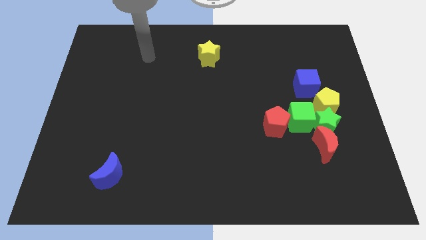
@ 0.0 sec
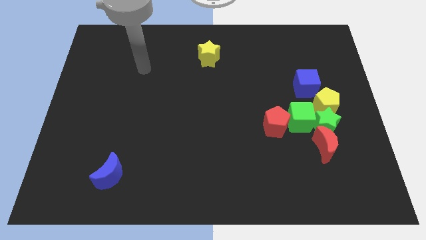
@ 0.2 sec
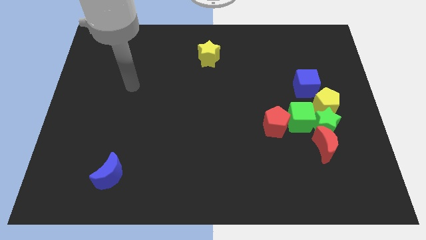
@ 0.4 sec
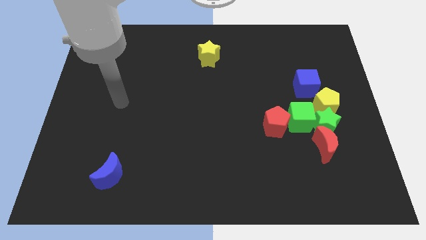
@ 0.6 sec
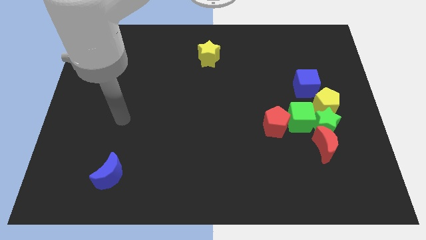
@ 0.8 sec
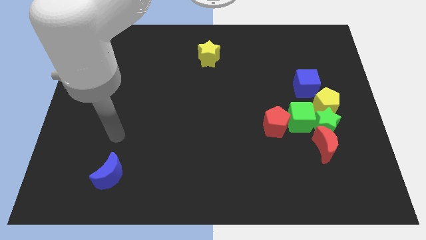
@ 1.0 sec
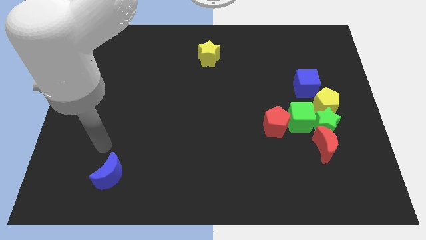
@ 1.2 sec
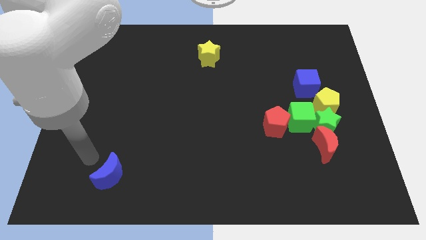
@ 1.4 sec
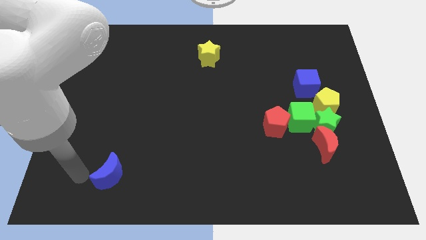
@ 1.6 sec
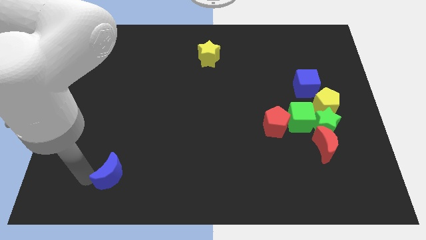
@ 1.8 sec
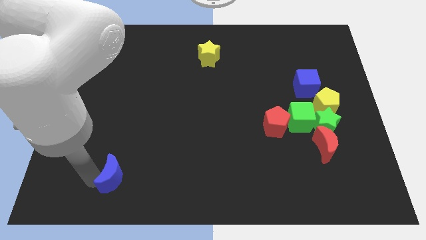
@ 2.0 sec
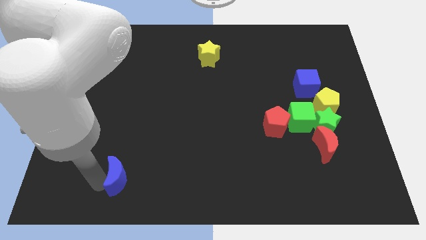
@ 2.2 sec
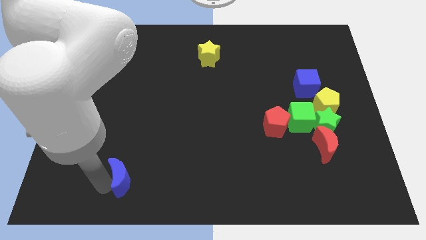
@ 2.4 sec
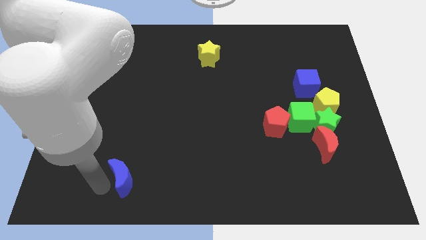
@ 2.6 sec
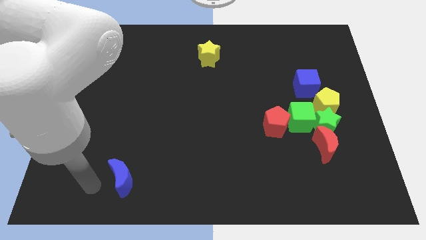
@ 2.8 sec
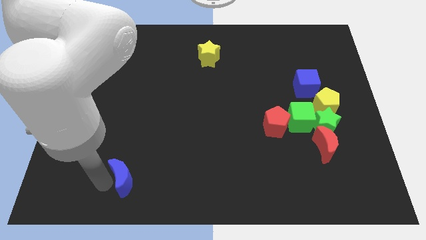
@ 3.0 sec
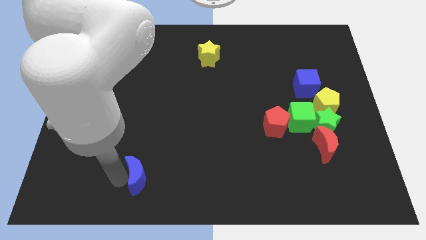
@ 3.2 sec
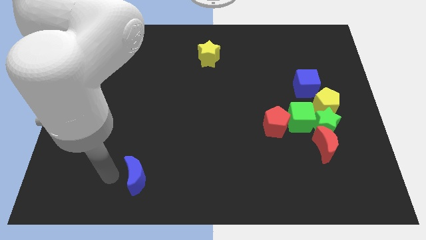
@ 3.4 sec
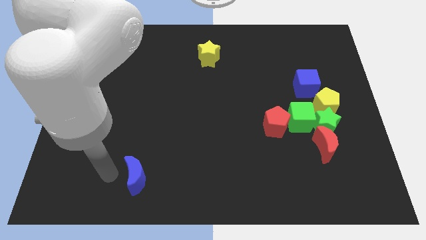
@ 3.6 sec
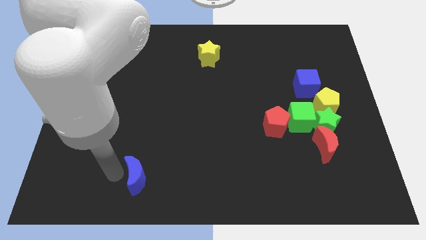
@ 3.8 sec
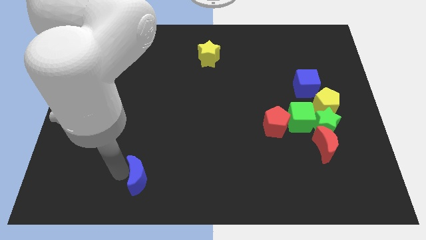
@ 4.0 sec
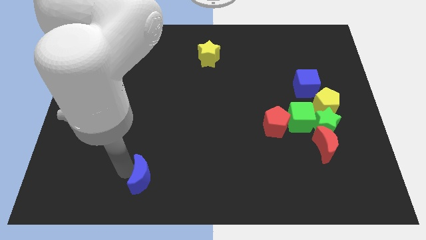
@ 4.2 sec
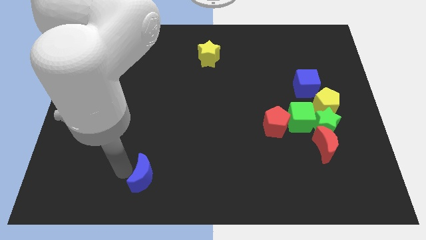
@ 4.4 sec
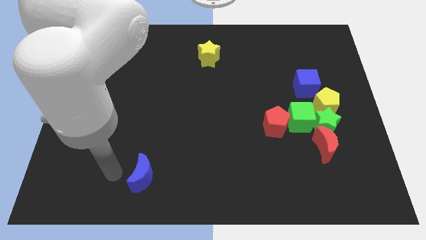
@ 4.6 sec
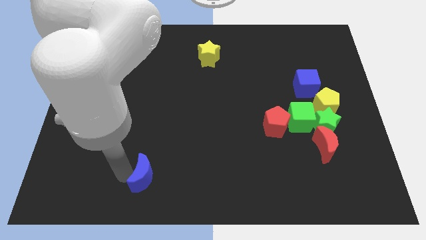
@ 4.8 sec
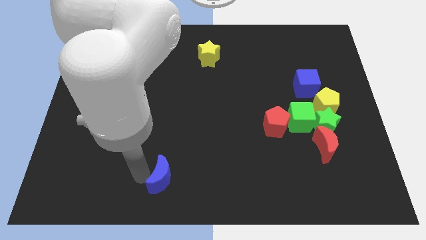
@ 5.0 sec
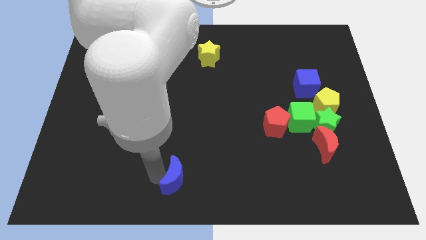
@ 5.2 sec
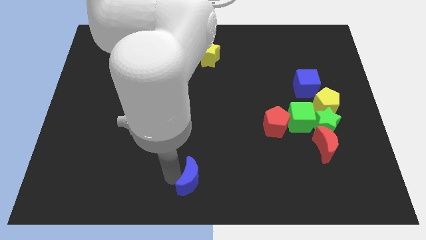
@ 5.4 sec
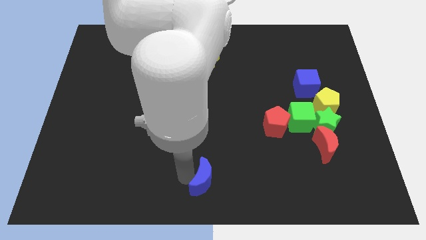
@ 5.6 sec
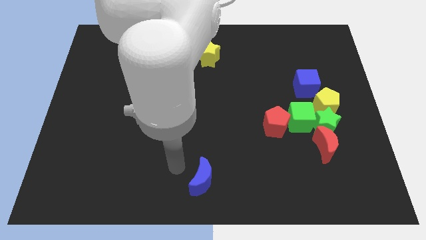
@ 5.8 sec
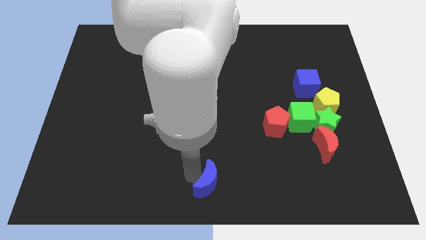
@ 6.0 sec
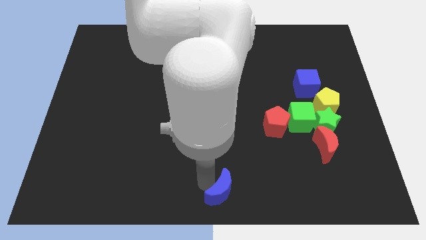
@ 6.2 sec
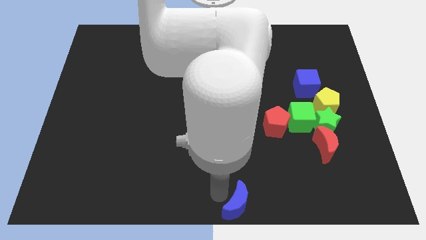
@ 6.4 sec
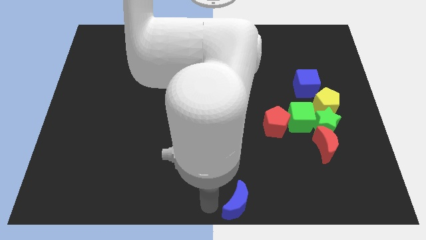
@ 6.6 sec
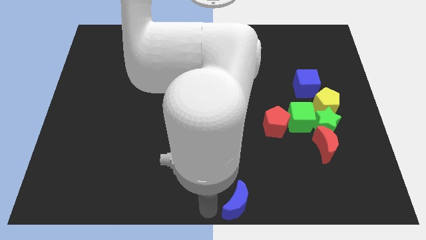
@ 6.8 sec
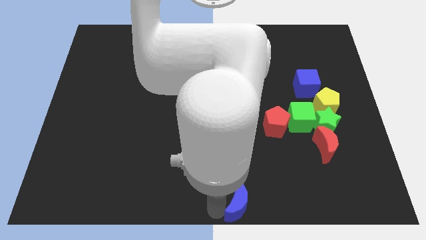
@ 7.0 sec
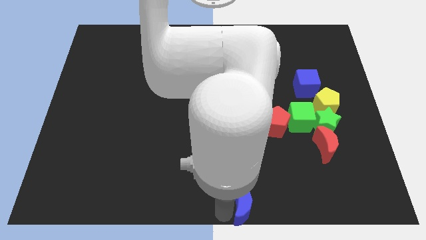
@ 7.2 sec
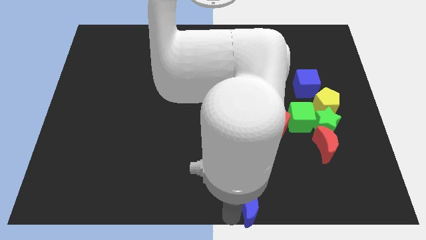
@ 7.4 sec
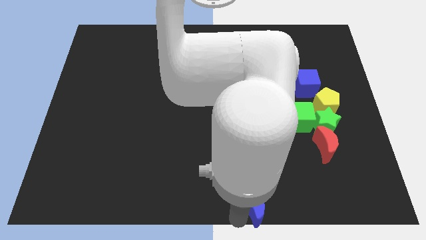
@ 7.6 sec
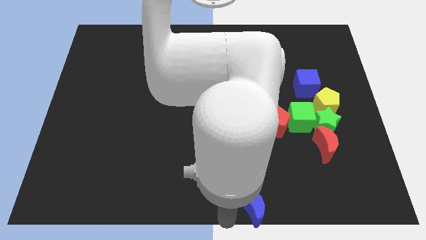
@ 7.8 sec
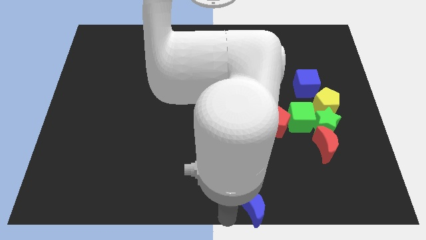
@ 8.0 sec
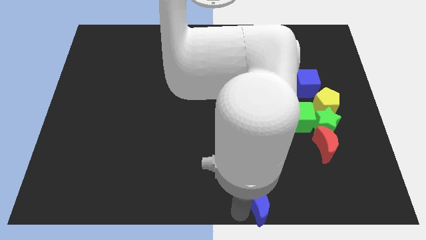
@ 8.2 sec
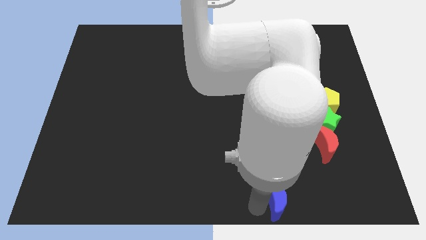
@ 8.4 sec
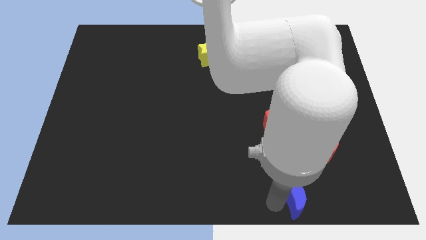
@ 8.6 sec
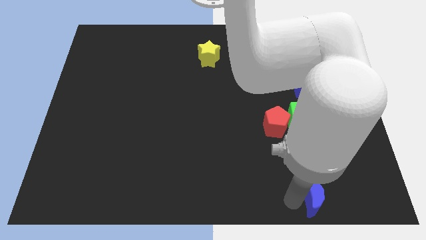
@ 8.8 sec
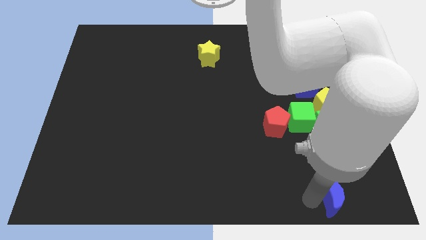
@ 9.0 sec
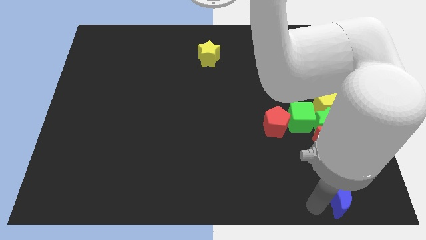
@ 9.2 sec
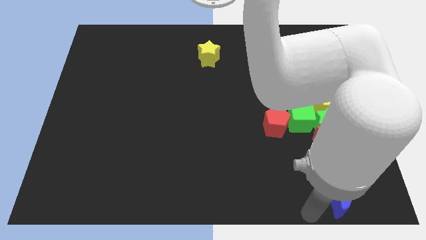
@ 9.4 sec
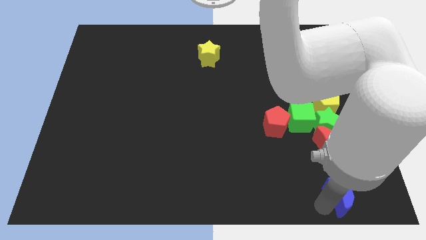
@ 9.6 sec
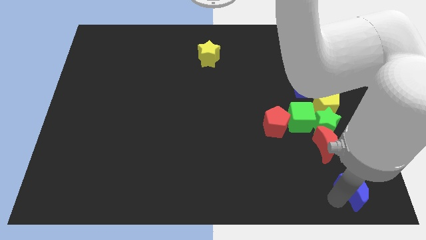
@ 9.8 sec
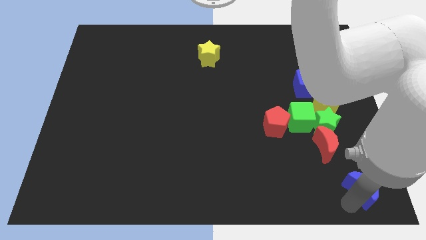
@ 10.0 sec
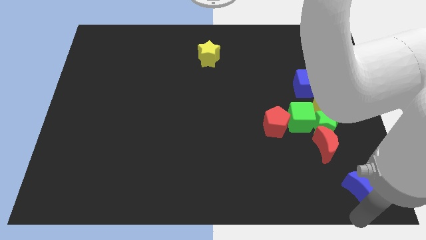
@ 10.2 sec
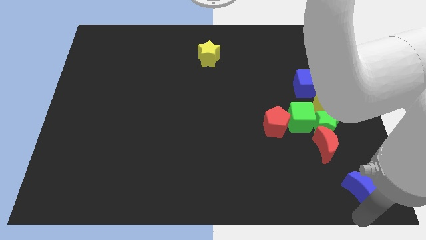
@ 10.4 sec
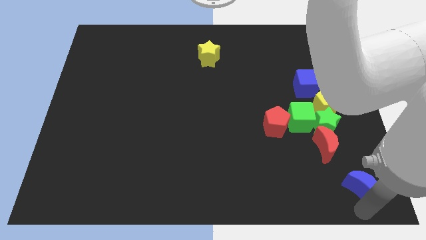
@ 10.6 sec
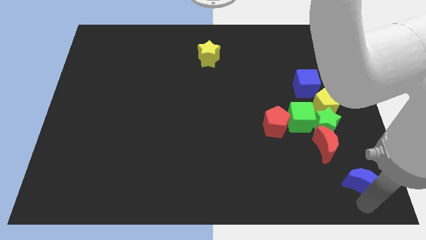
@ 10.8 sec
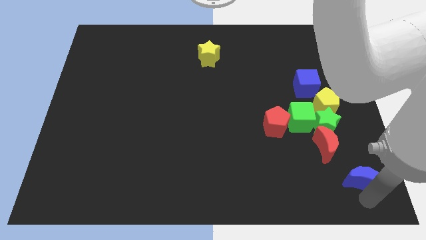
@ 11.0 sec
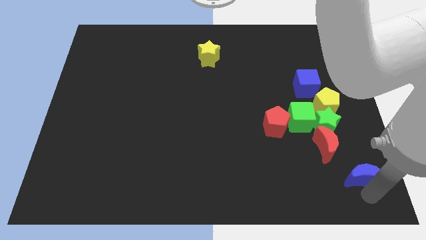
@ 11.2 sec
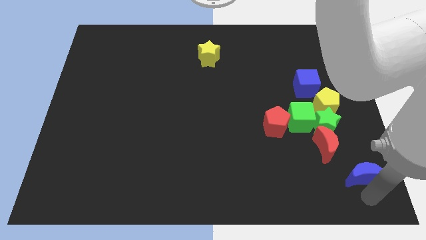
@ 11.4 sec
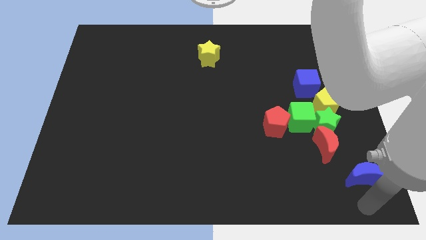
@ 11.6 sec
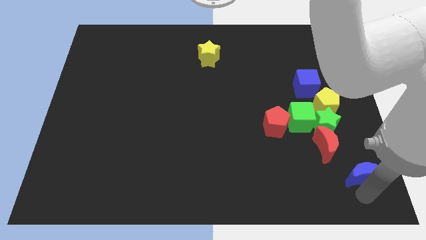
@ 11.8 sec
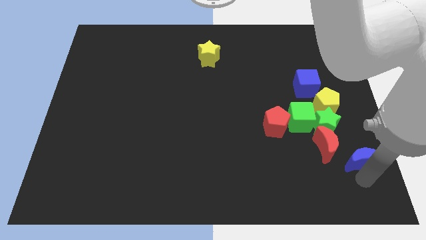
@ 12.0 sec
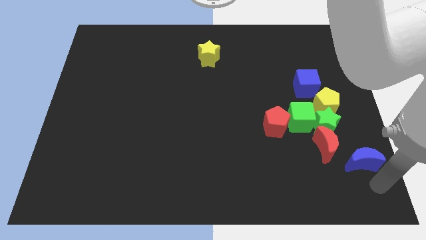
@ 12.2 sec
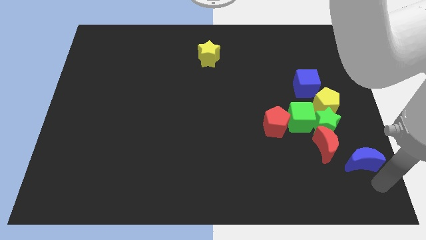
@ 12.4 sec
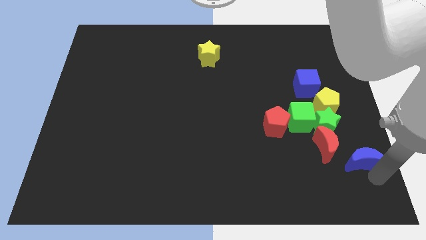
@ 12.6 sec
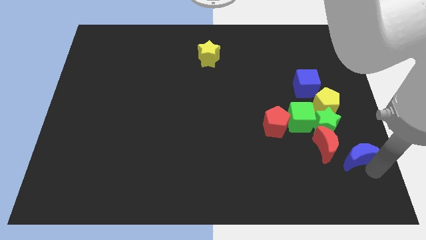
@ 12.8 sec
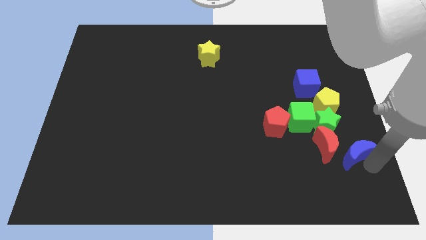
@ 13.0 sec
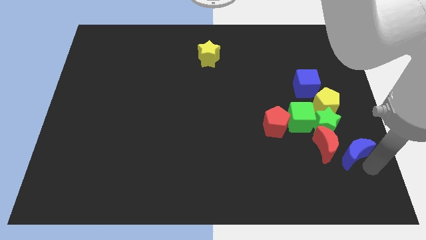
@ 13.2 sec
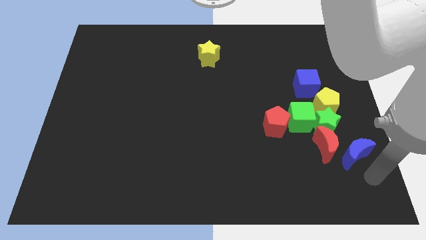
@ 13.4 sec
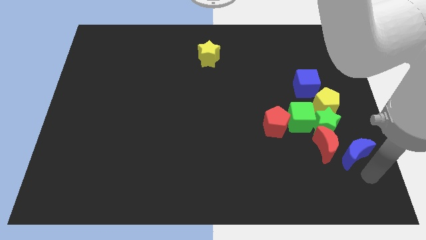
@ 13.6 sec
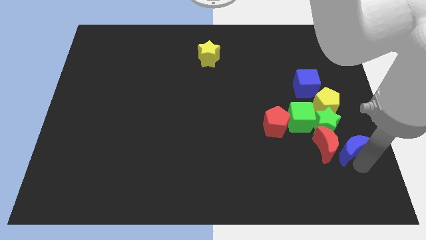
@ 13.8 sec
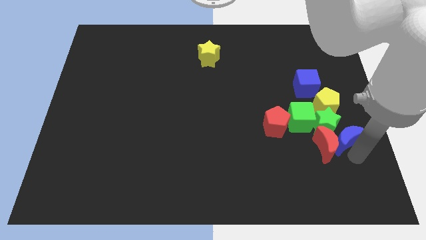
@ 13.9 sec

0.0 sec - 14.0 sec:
move the blue moon next to the green star

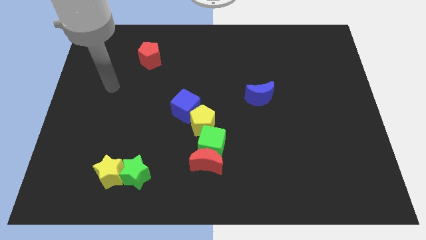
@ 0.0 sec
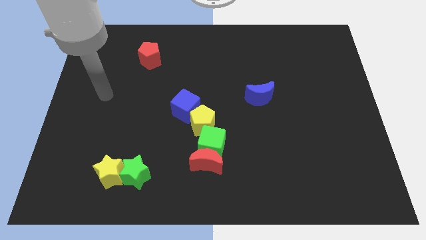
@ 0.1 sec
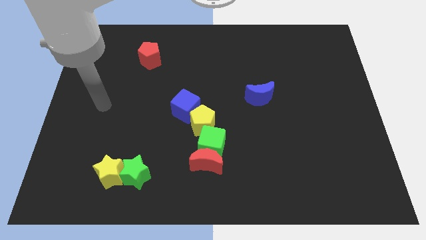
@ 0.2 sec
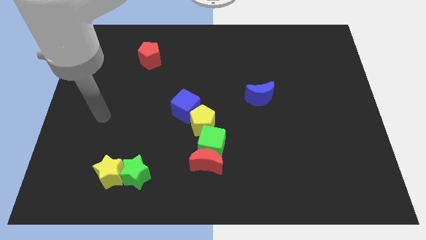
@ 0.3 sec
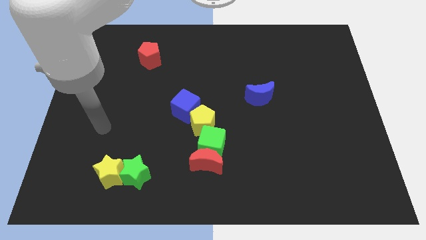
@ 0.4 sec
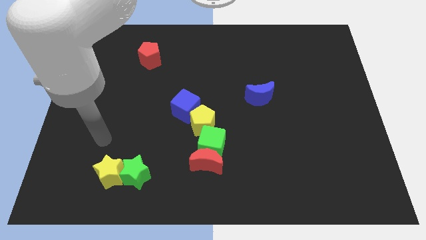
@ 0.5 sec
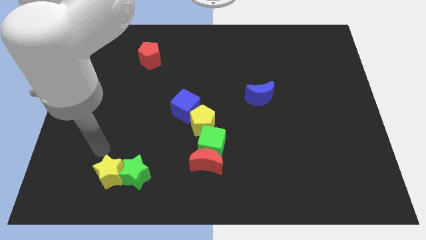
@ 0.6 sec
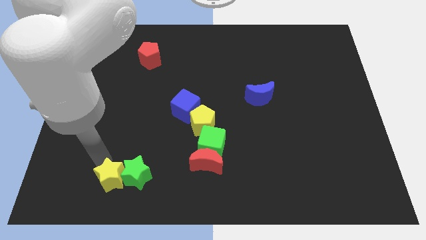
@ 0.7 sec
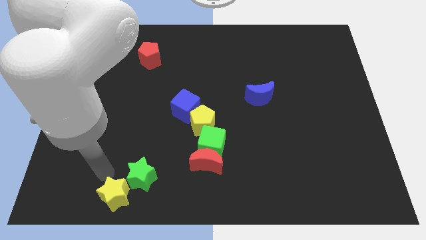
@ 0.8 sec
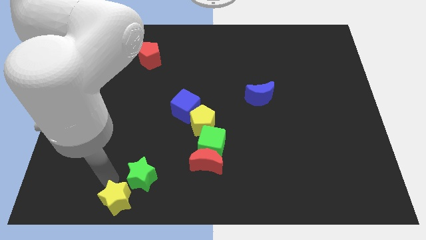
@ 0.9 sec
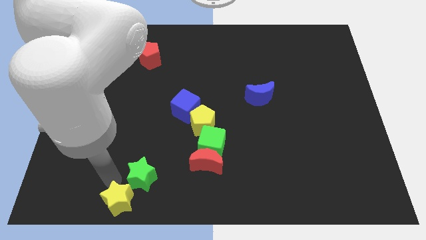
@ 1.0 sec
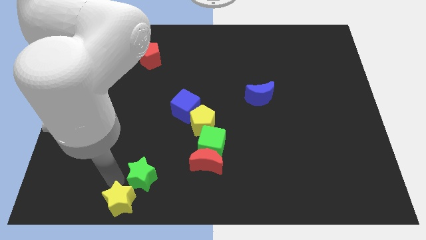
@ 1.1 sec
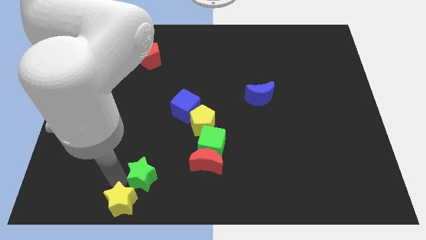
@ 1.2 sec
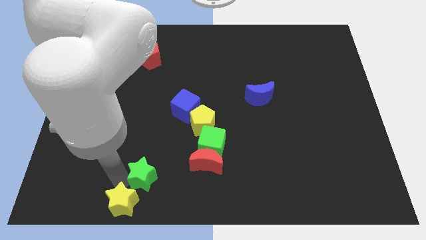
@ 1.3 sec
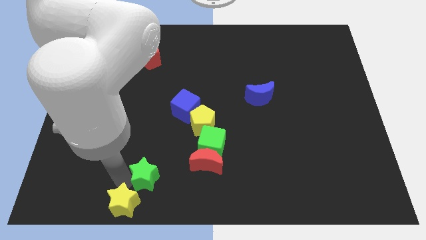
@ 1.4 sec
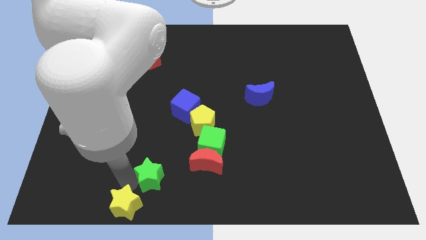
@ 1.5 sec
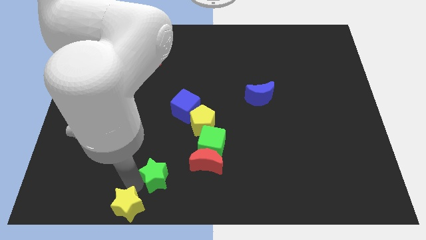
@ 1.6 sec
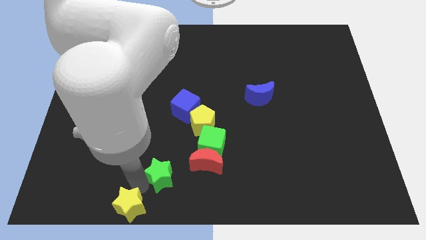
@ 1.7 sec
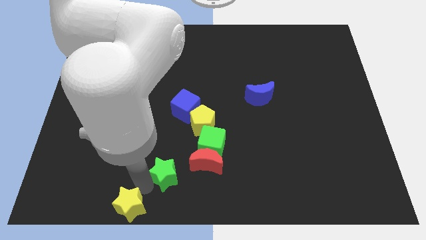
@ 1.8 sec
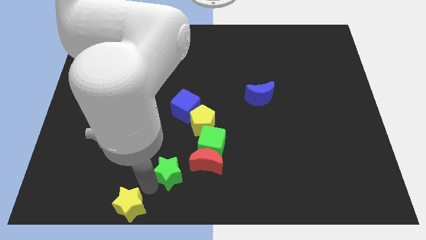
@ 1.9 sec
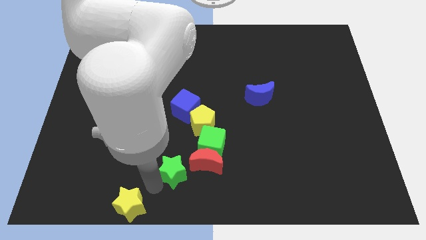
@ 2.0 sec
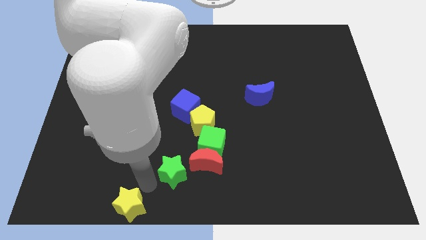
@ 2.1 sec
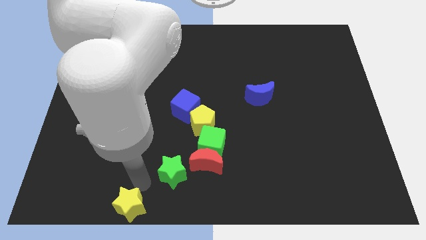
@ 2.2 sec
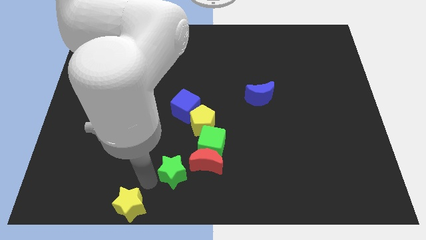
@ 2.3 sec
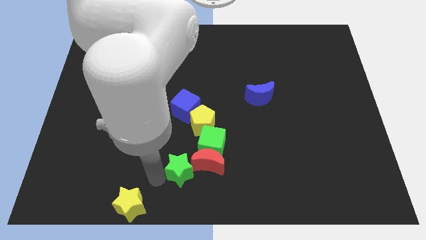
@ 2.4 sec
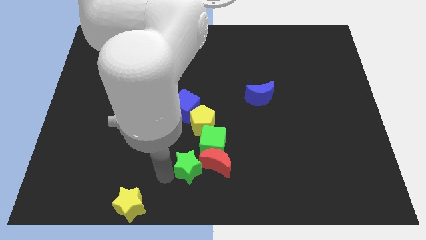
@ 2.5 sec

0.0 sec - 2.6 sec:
move the green star to the red moon
